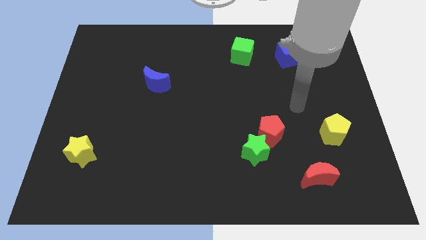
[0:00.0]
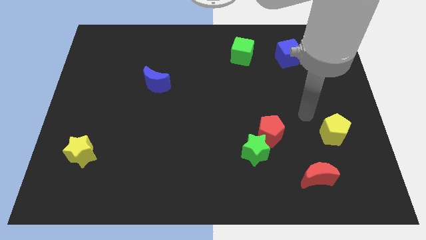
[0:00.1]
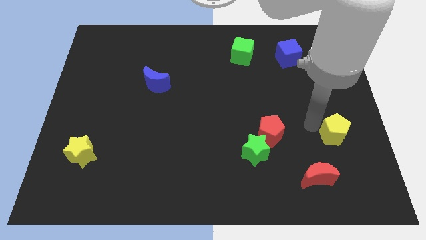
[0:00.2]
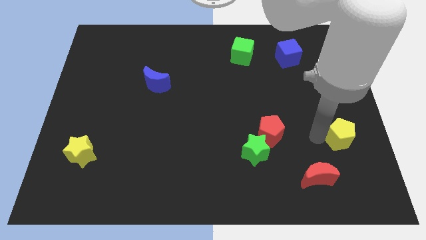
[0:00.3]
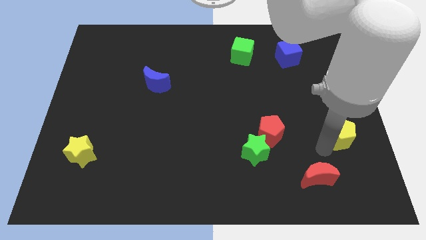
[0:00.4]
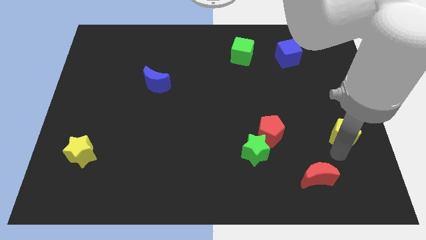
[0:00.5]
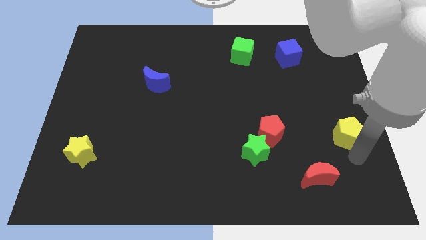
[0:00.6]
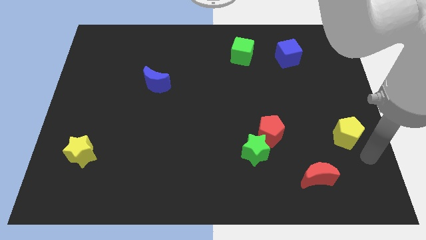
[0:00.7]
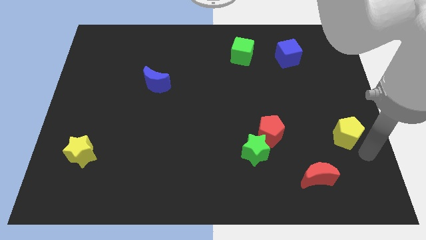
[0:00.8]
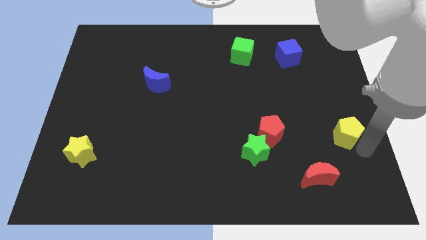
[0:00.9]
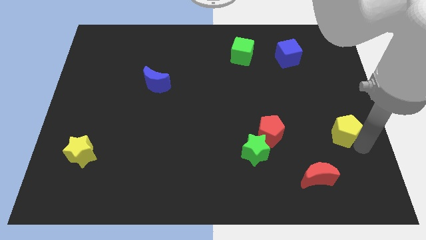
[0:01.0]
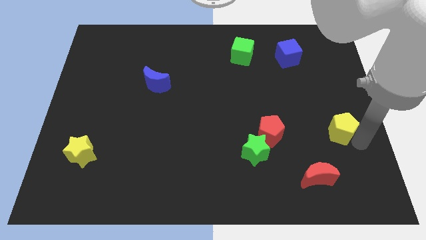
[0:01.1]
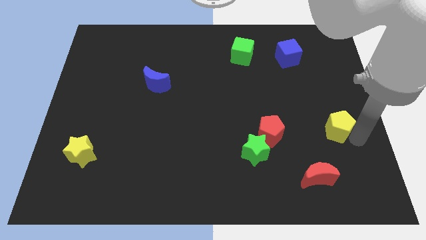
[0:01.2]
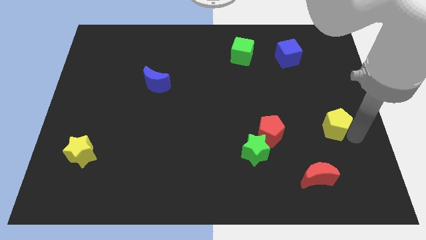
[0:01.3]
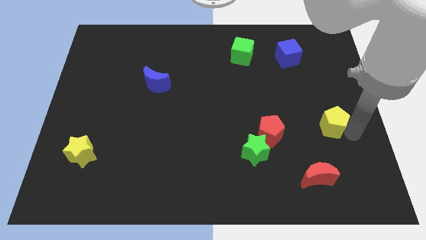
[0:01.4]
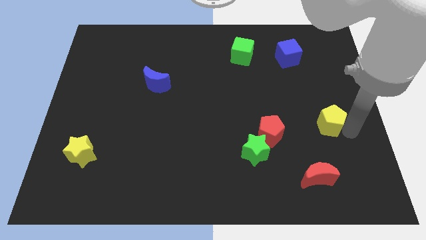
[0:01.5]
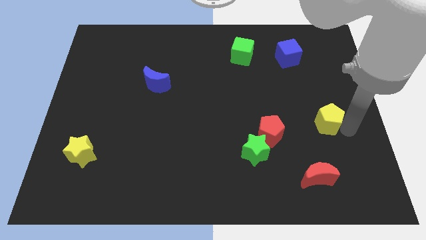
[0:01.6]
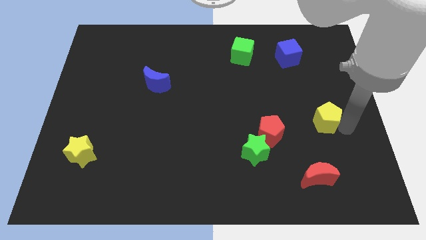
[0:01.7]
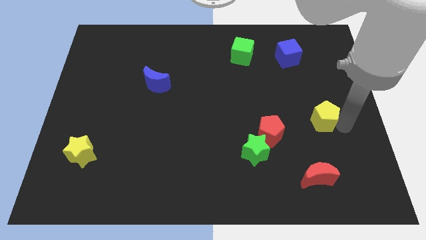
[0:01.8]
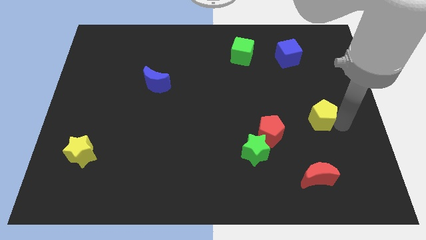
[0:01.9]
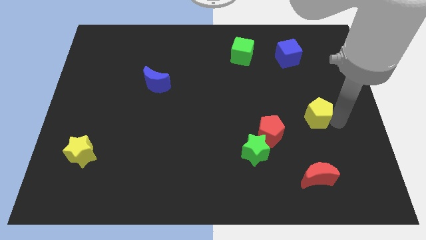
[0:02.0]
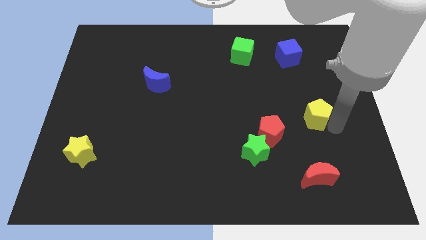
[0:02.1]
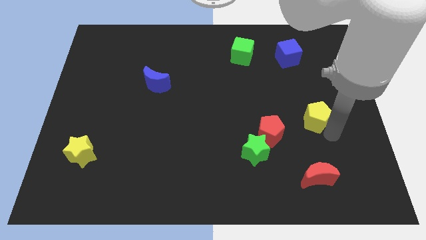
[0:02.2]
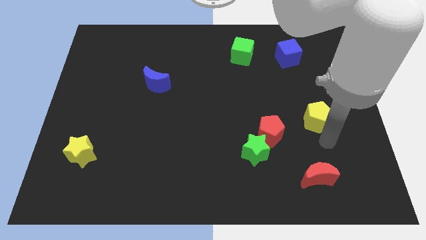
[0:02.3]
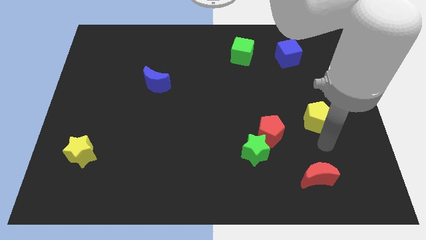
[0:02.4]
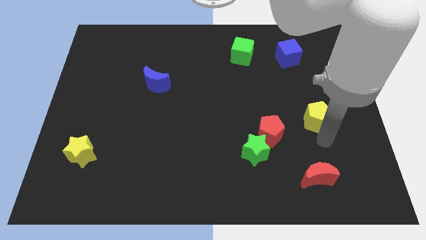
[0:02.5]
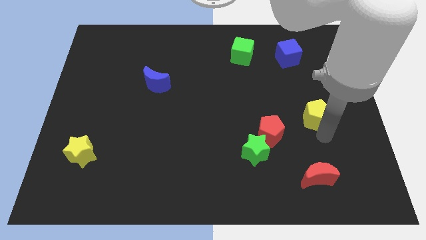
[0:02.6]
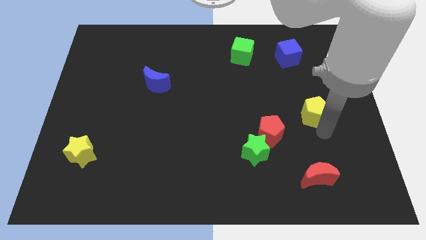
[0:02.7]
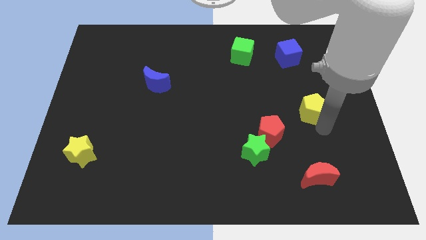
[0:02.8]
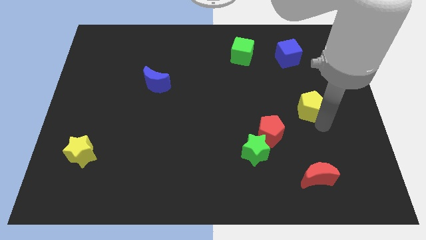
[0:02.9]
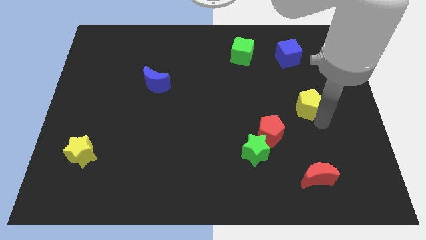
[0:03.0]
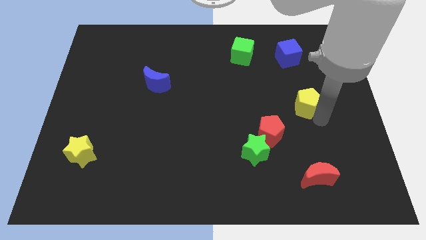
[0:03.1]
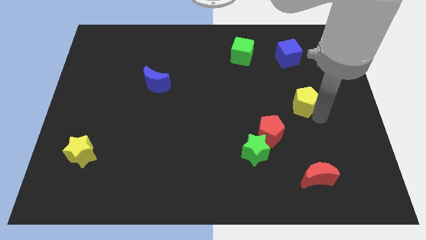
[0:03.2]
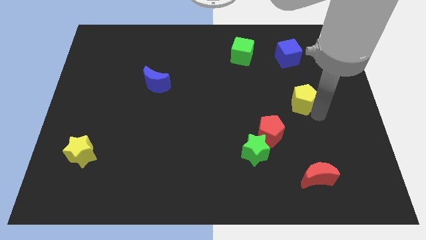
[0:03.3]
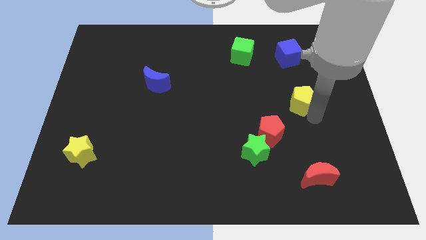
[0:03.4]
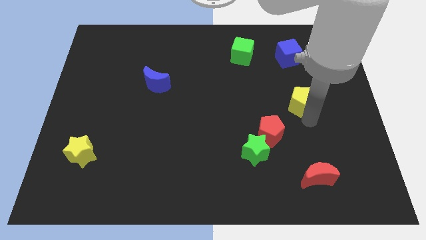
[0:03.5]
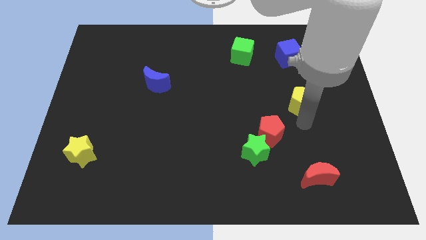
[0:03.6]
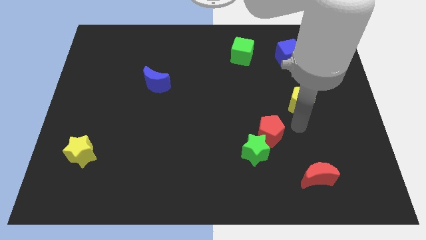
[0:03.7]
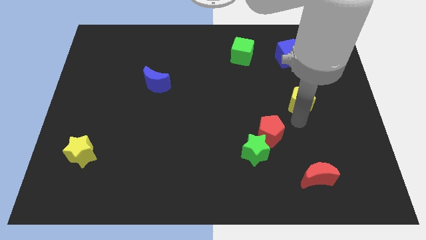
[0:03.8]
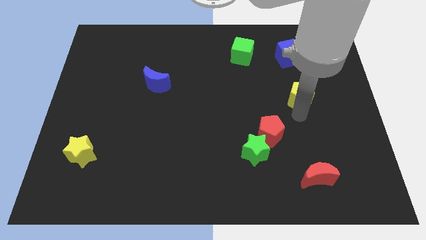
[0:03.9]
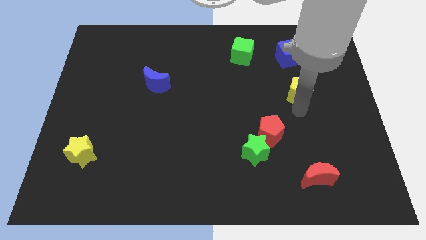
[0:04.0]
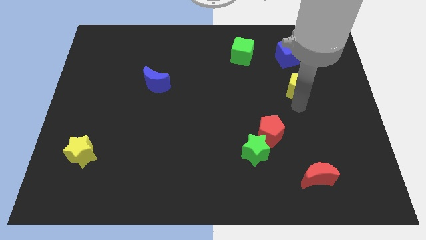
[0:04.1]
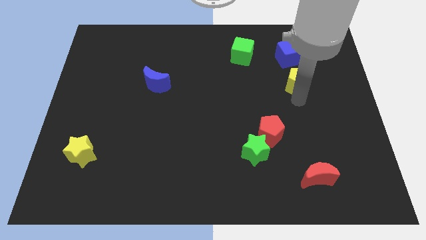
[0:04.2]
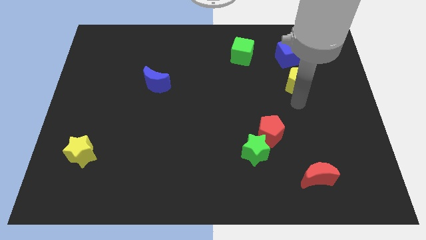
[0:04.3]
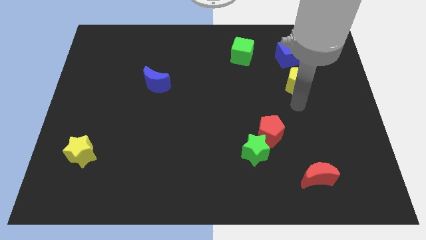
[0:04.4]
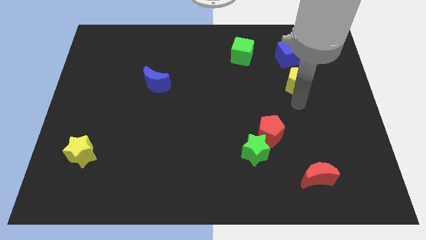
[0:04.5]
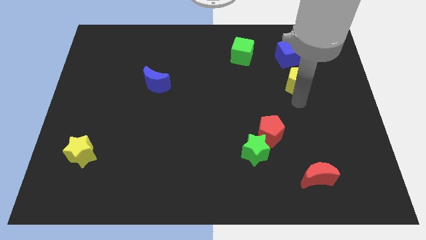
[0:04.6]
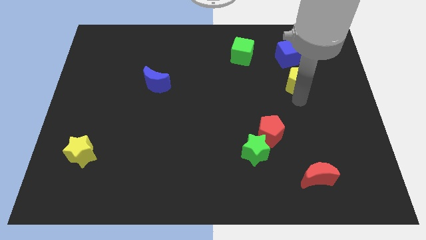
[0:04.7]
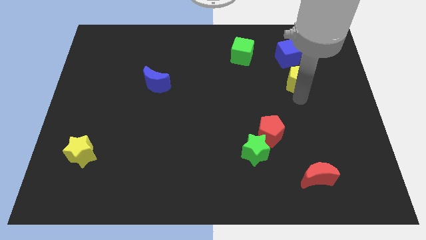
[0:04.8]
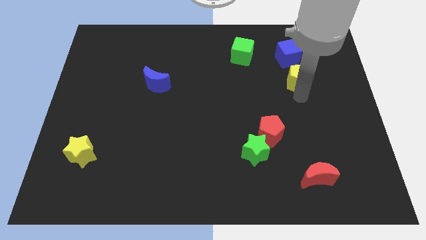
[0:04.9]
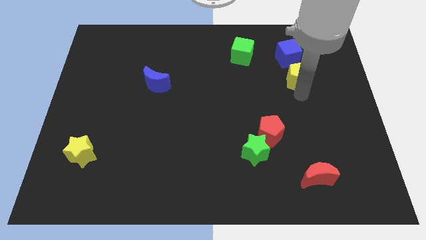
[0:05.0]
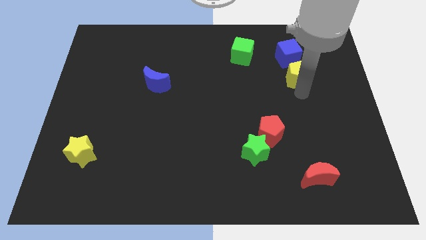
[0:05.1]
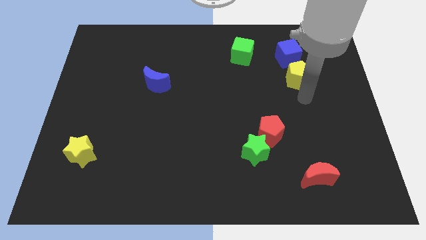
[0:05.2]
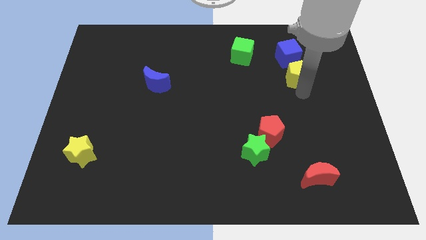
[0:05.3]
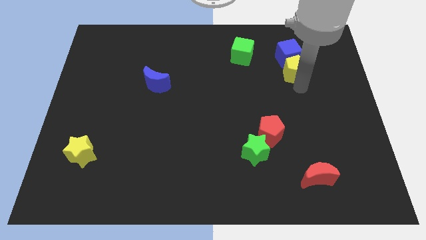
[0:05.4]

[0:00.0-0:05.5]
push the yellow pentagon next to the blue cube

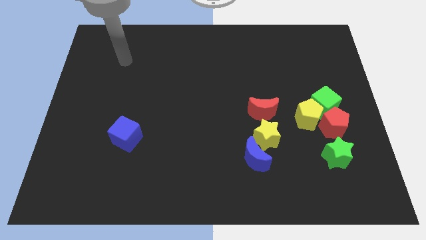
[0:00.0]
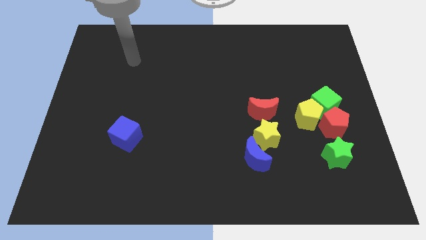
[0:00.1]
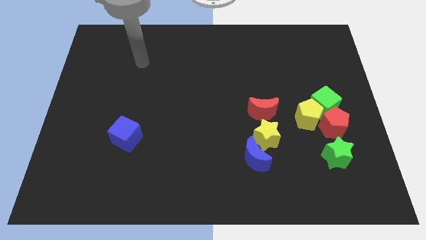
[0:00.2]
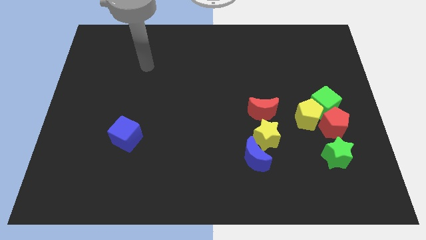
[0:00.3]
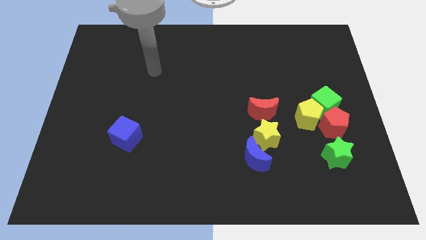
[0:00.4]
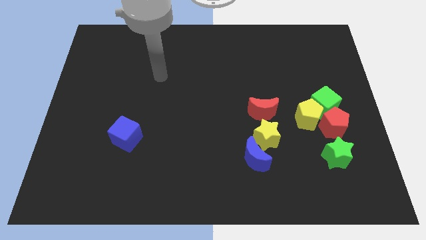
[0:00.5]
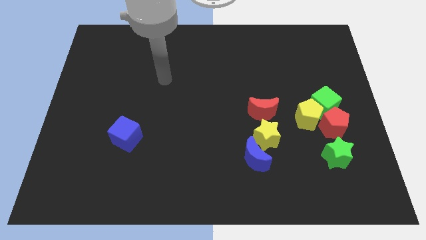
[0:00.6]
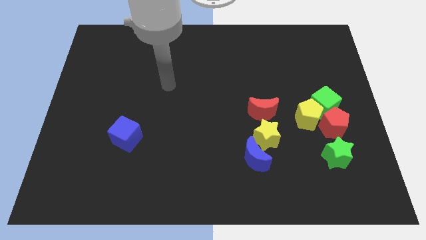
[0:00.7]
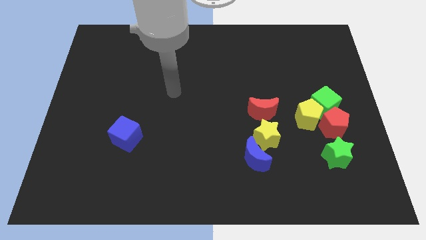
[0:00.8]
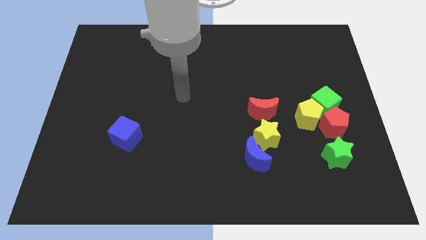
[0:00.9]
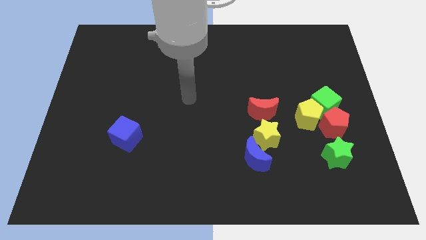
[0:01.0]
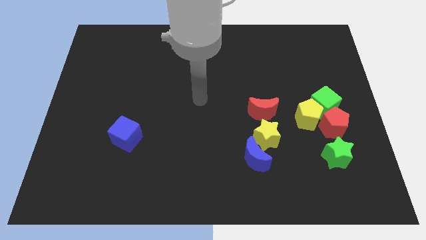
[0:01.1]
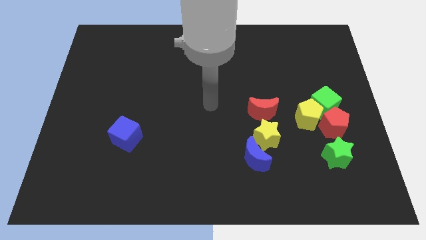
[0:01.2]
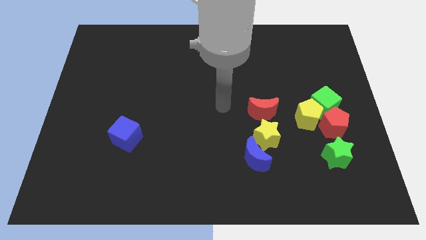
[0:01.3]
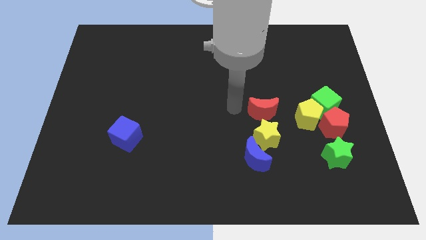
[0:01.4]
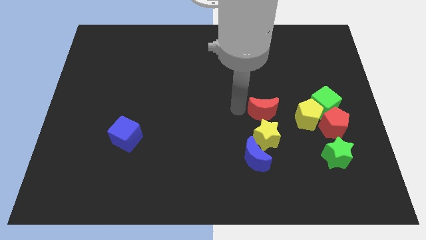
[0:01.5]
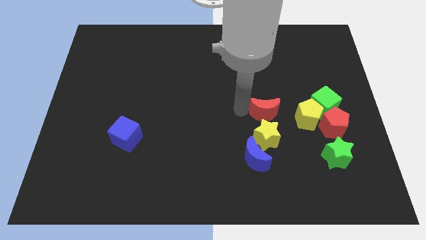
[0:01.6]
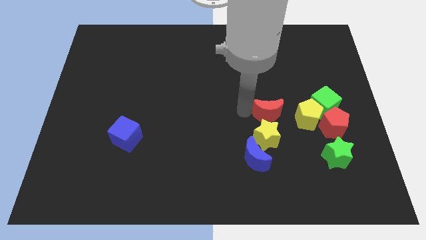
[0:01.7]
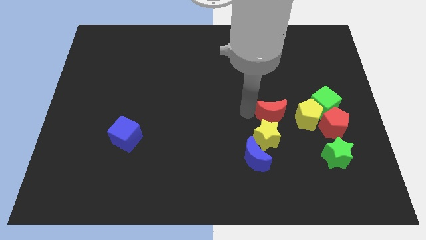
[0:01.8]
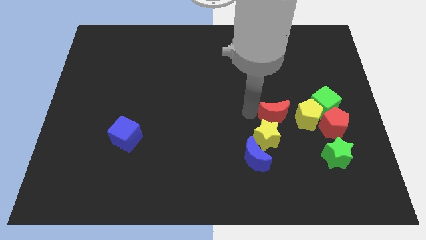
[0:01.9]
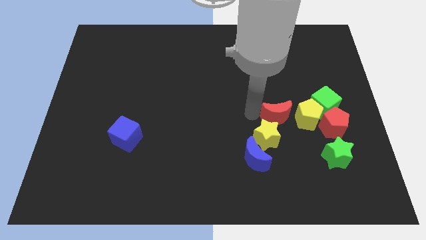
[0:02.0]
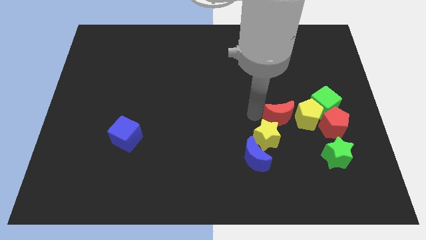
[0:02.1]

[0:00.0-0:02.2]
push the red moon towards the yellow pentagon
